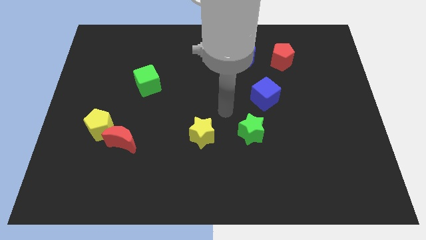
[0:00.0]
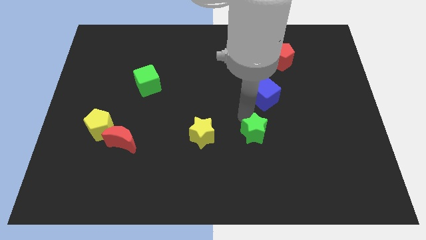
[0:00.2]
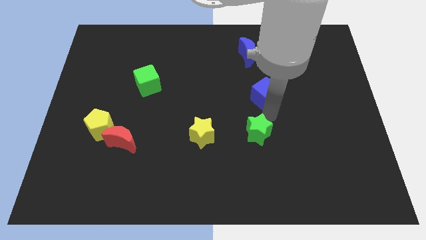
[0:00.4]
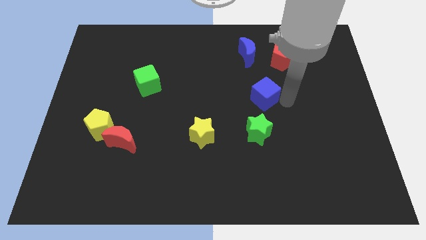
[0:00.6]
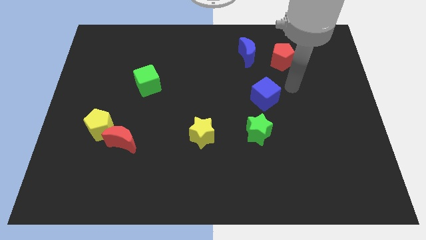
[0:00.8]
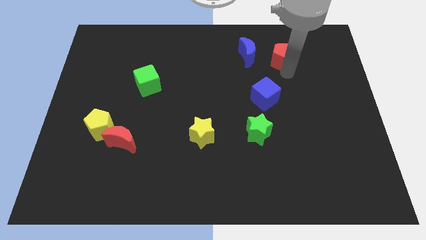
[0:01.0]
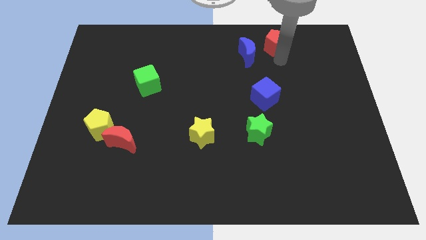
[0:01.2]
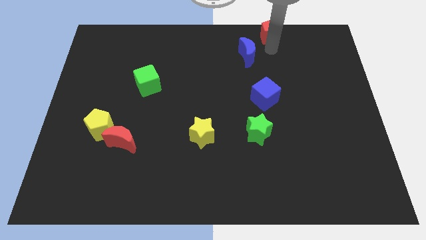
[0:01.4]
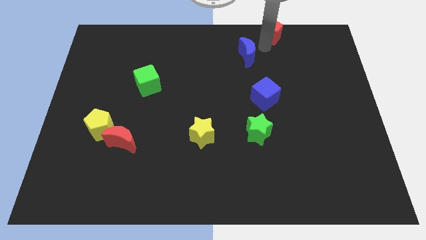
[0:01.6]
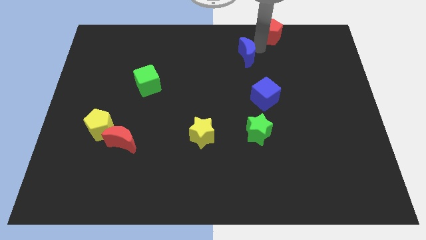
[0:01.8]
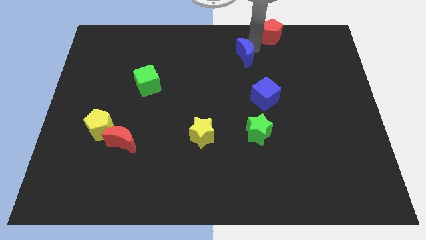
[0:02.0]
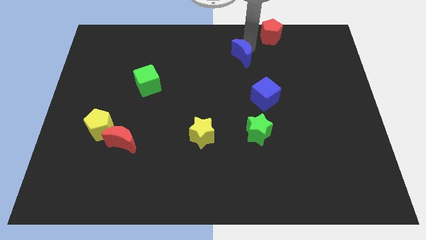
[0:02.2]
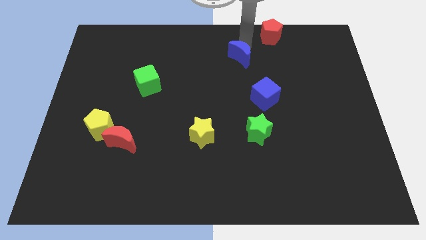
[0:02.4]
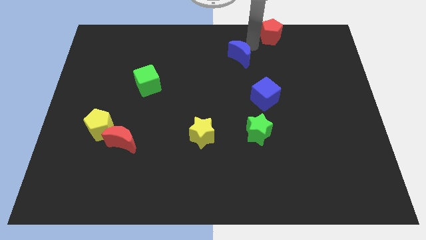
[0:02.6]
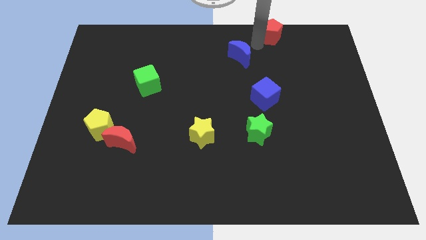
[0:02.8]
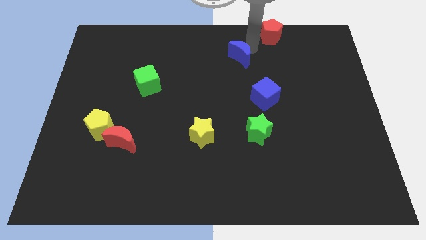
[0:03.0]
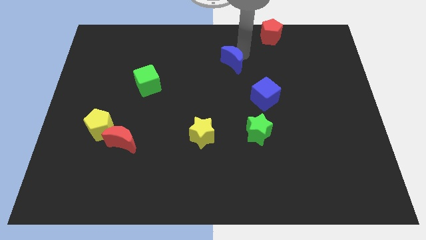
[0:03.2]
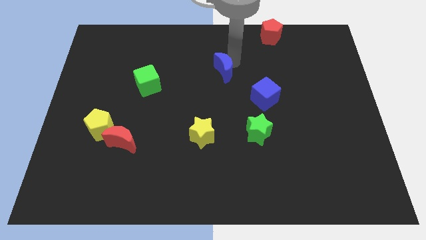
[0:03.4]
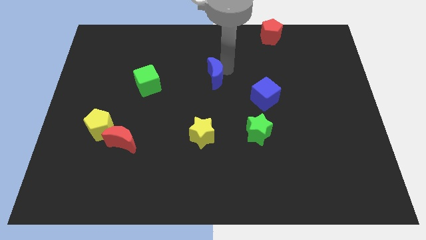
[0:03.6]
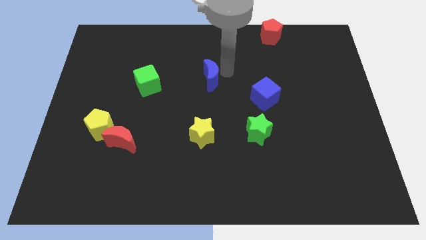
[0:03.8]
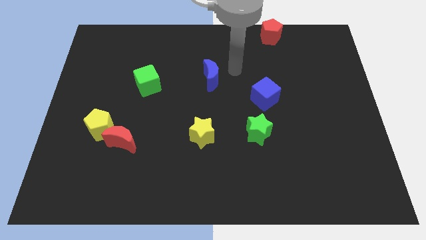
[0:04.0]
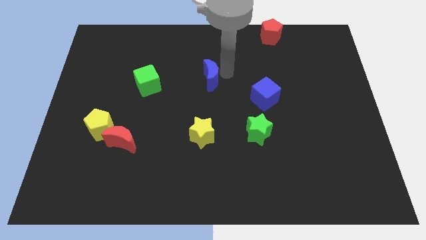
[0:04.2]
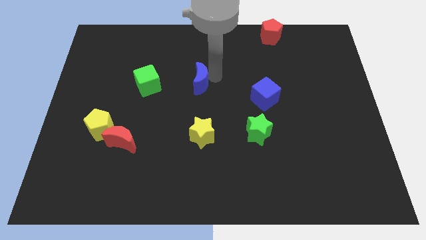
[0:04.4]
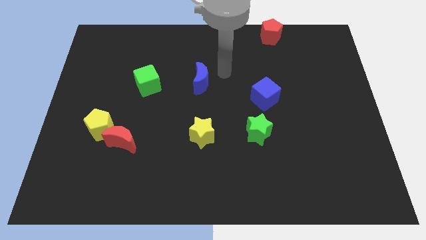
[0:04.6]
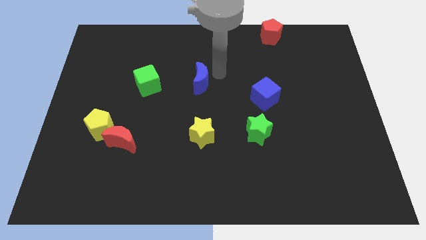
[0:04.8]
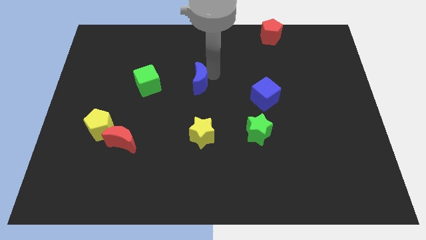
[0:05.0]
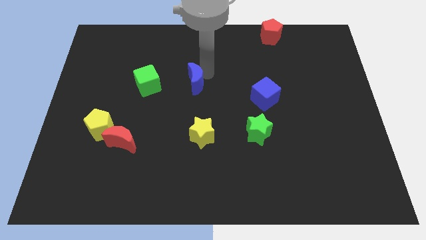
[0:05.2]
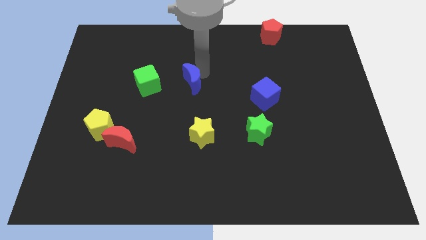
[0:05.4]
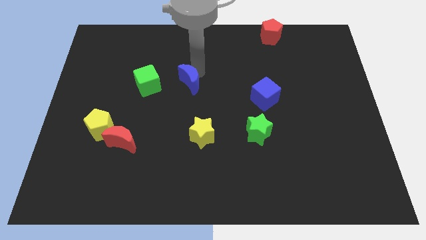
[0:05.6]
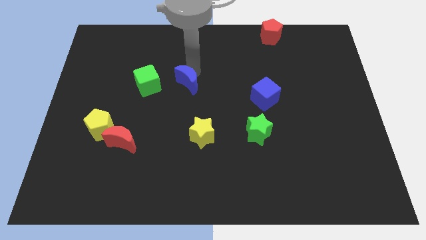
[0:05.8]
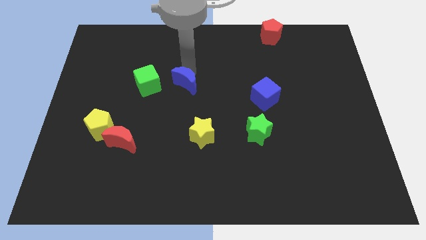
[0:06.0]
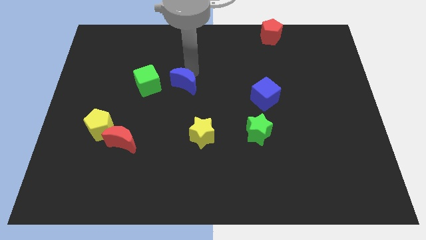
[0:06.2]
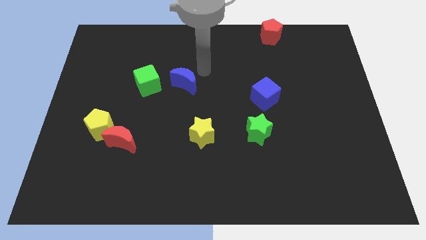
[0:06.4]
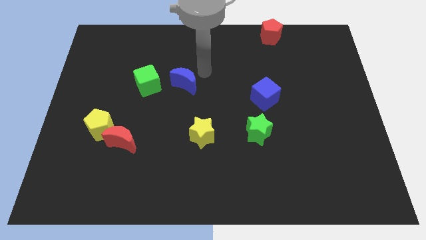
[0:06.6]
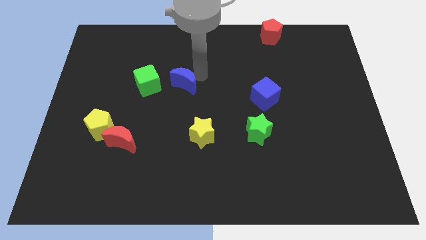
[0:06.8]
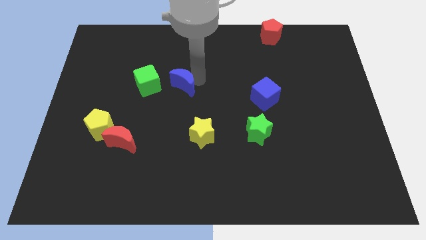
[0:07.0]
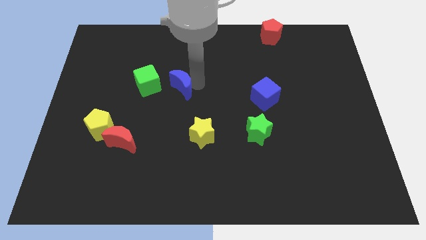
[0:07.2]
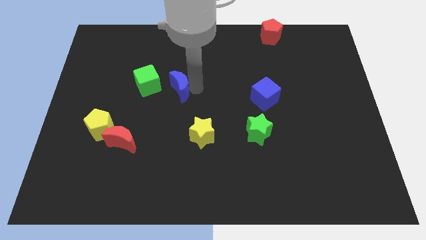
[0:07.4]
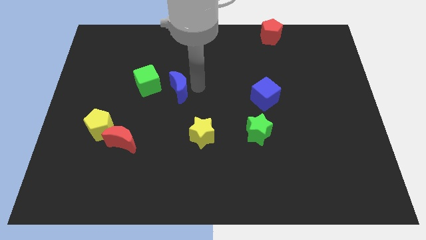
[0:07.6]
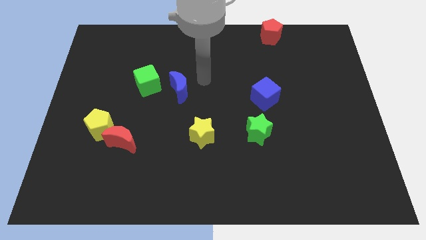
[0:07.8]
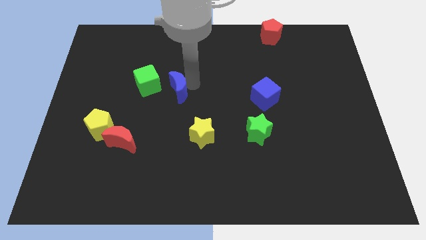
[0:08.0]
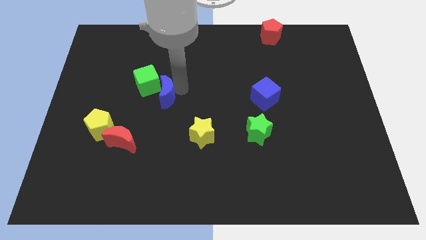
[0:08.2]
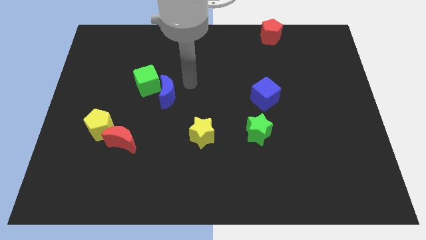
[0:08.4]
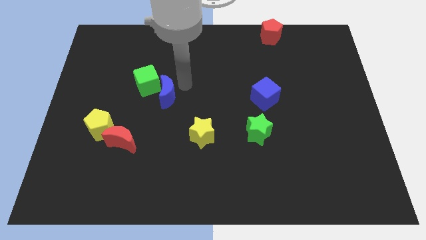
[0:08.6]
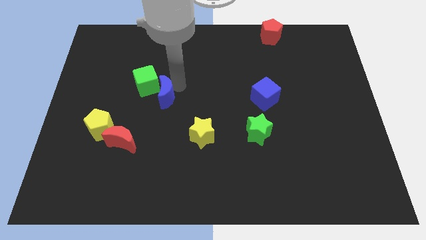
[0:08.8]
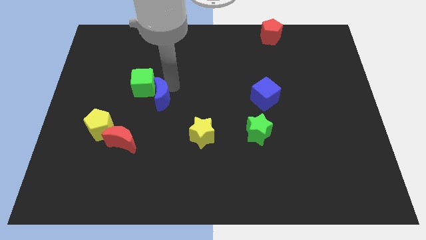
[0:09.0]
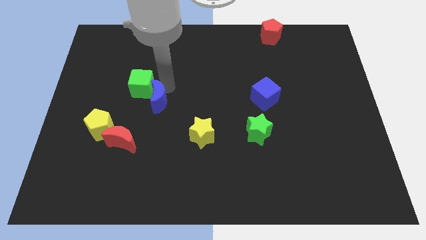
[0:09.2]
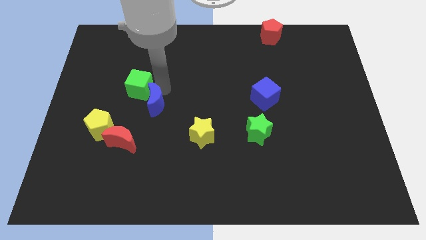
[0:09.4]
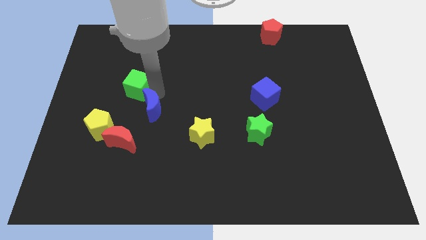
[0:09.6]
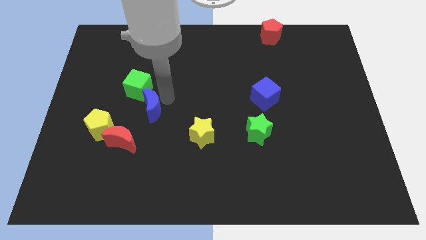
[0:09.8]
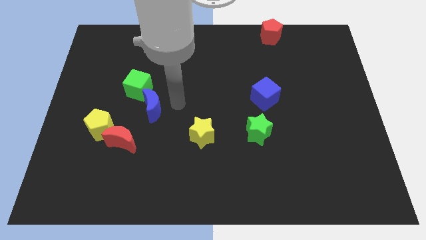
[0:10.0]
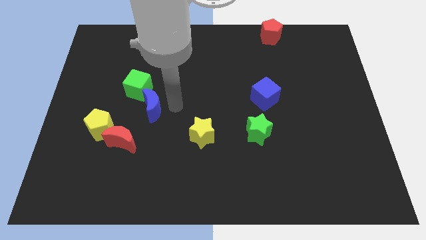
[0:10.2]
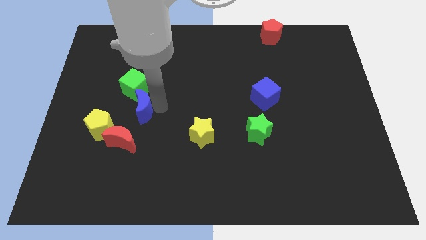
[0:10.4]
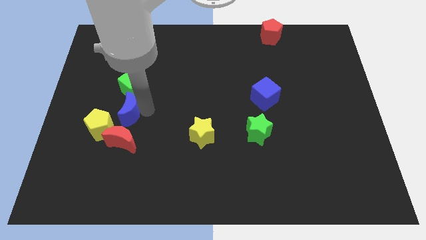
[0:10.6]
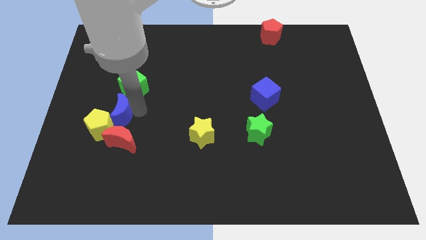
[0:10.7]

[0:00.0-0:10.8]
move the blue moon to the top left of the red moon

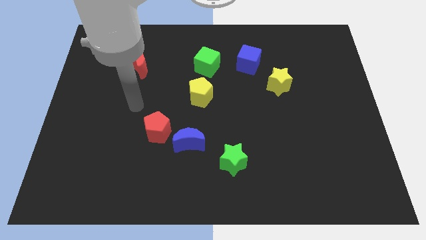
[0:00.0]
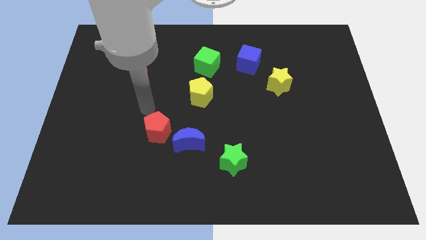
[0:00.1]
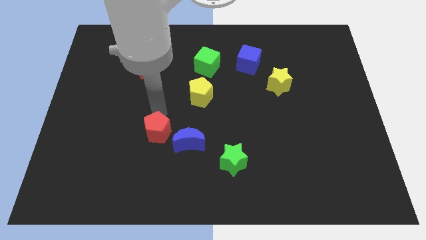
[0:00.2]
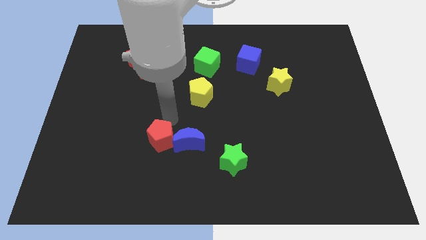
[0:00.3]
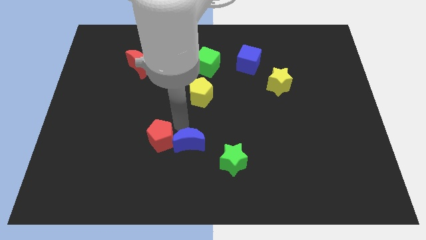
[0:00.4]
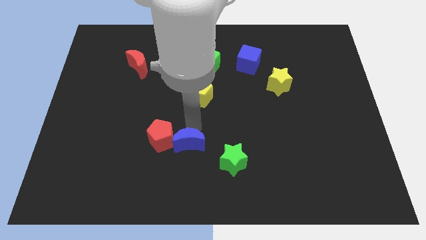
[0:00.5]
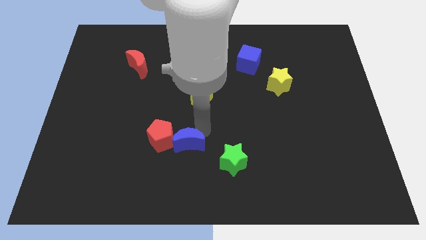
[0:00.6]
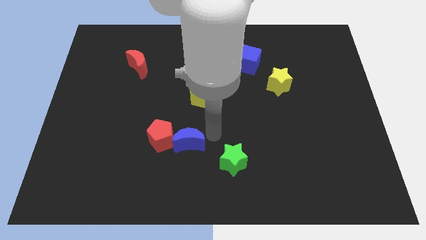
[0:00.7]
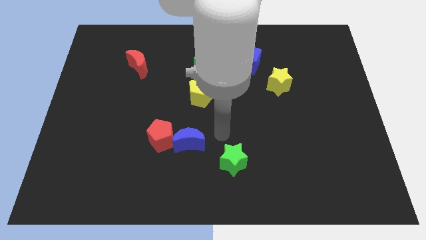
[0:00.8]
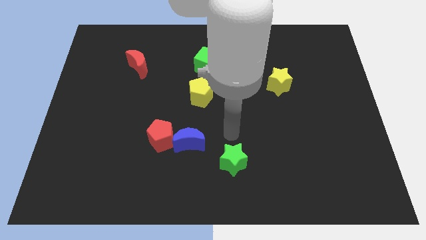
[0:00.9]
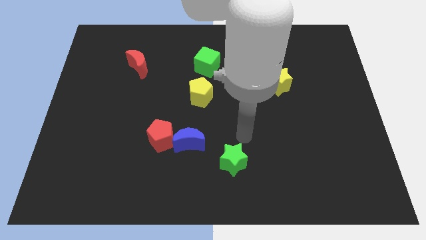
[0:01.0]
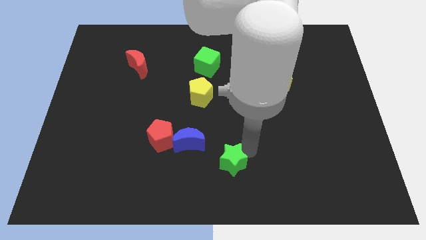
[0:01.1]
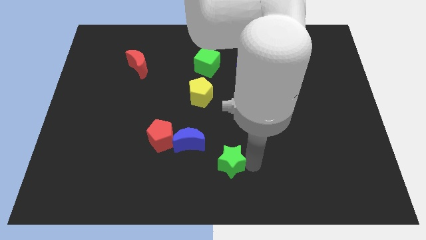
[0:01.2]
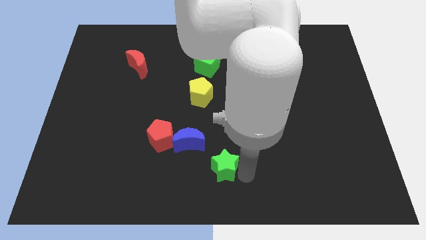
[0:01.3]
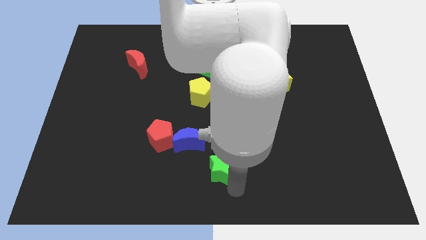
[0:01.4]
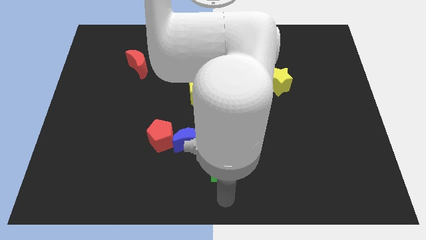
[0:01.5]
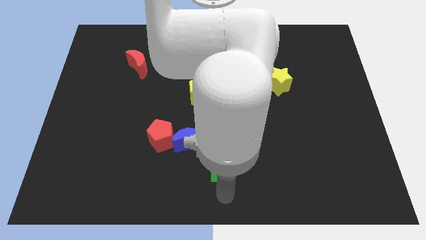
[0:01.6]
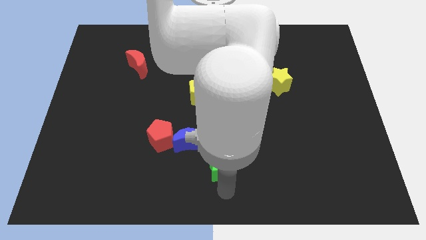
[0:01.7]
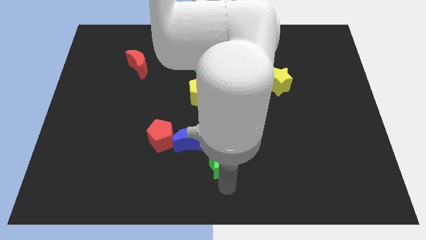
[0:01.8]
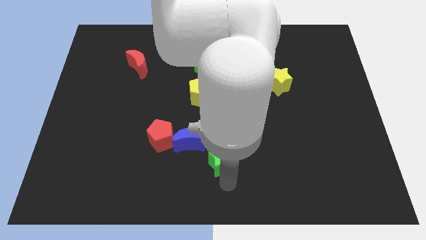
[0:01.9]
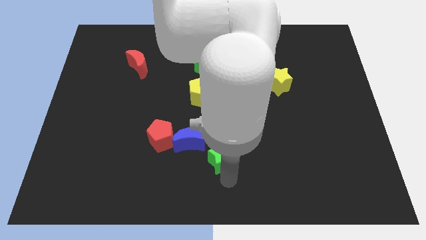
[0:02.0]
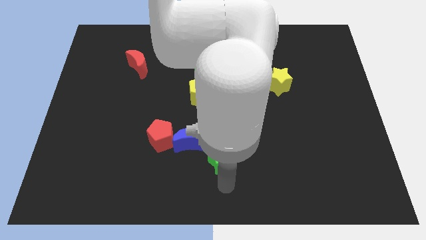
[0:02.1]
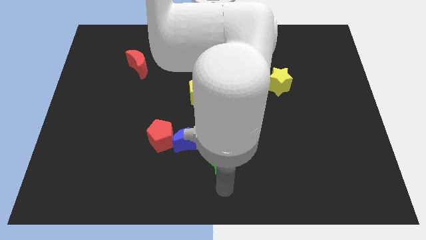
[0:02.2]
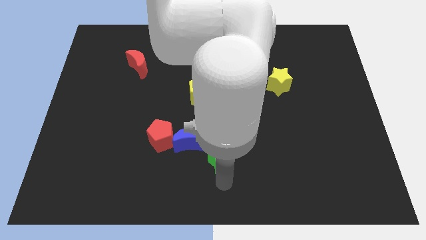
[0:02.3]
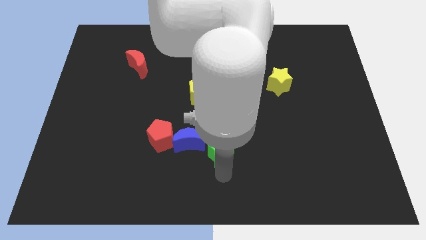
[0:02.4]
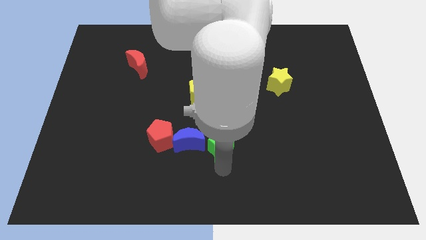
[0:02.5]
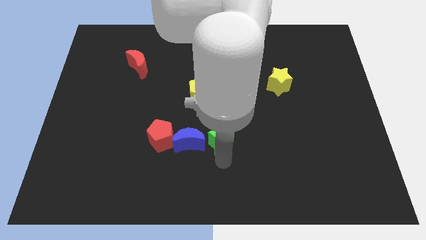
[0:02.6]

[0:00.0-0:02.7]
push the green star to the top right of the blue moon
